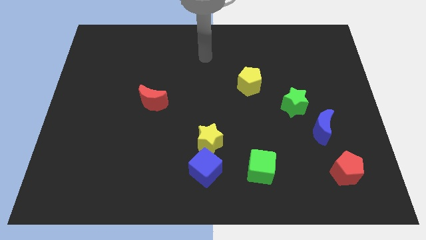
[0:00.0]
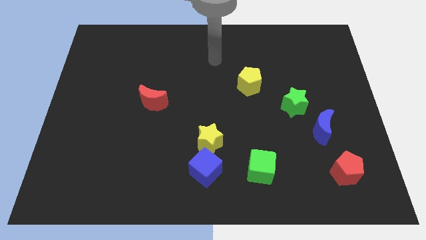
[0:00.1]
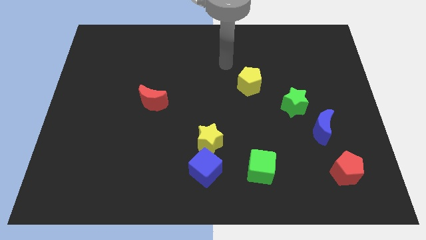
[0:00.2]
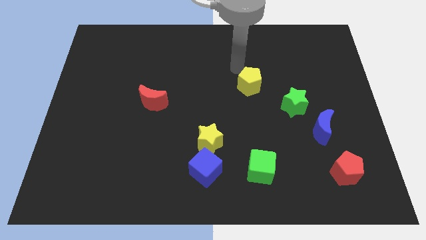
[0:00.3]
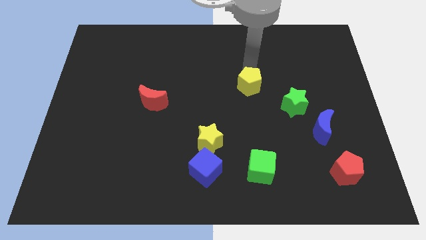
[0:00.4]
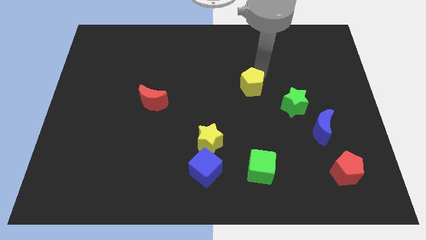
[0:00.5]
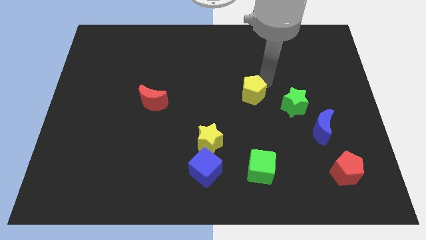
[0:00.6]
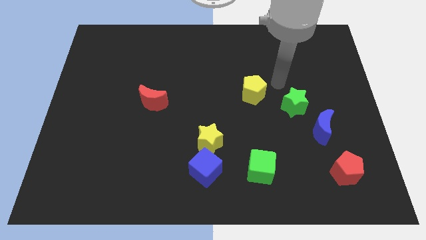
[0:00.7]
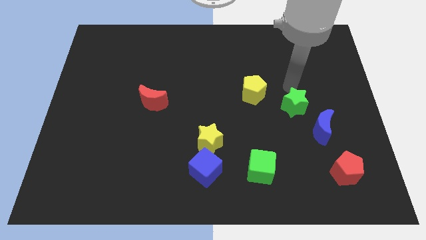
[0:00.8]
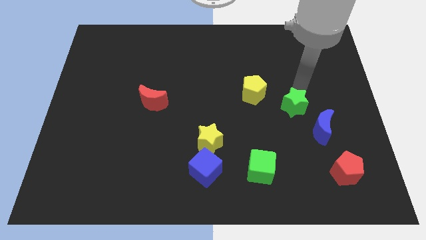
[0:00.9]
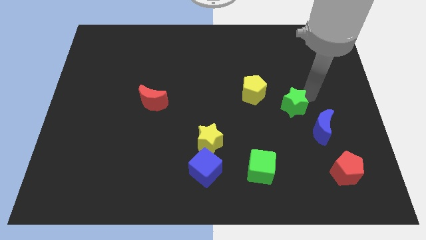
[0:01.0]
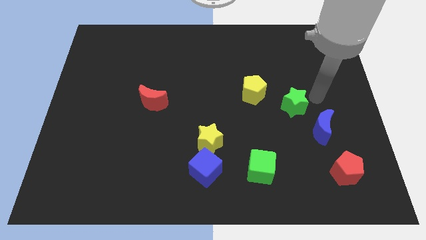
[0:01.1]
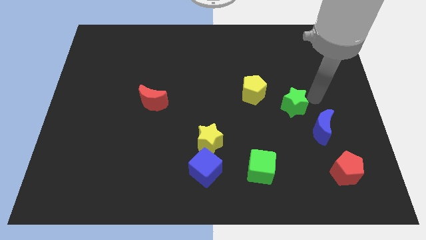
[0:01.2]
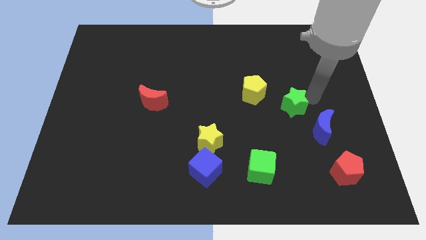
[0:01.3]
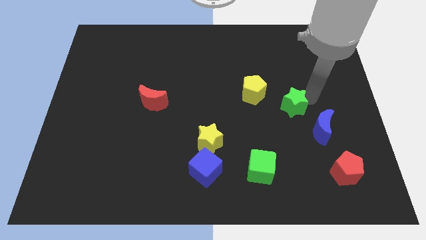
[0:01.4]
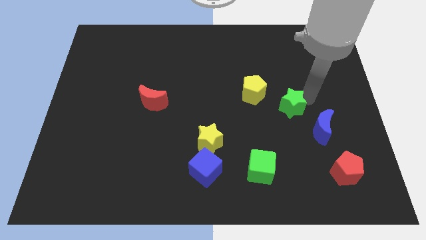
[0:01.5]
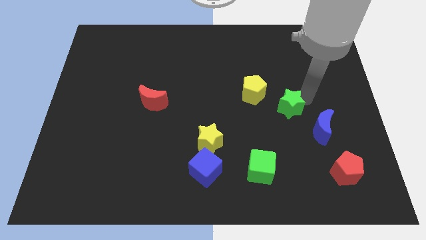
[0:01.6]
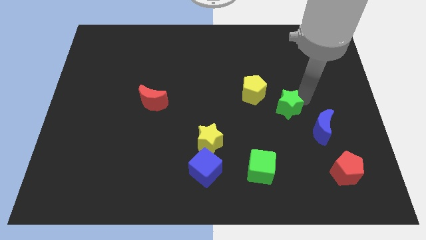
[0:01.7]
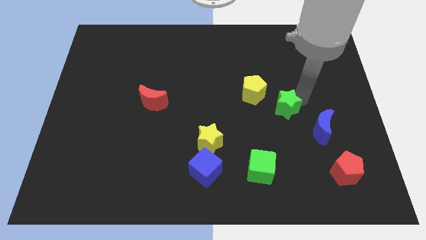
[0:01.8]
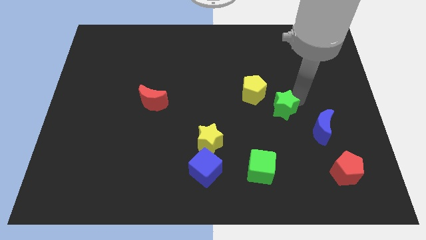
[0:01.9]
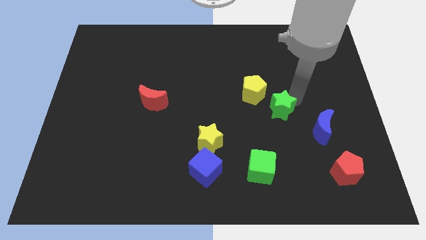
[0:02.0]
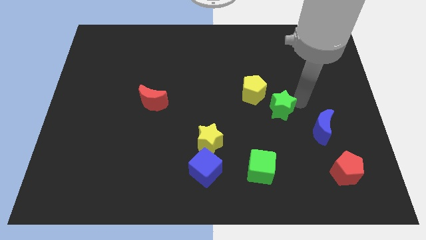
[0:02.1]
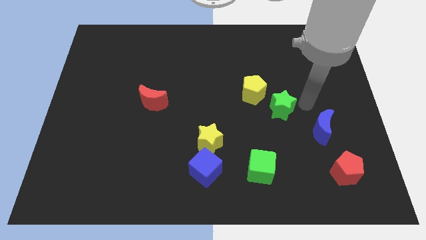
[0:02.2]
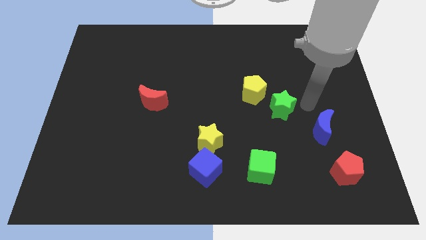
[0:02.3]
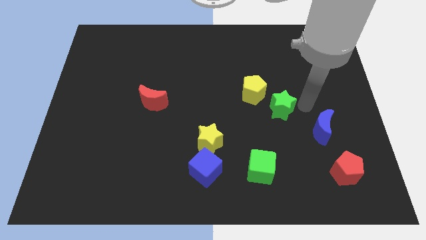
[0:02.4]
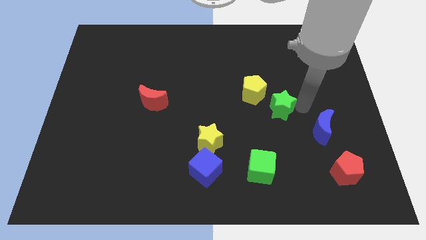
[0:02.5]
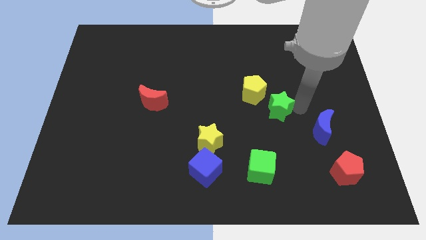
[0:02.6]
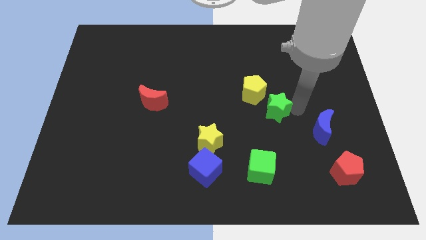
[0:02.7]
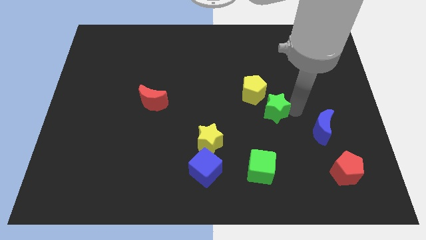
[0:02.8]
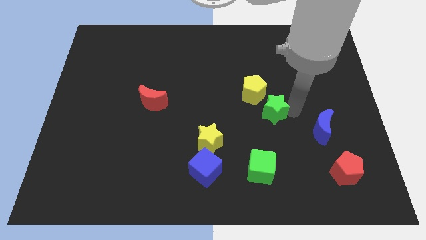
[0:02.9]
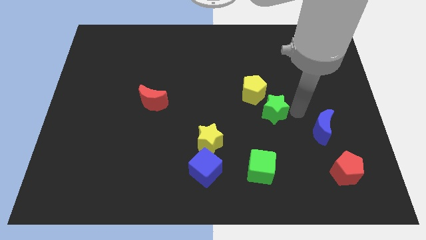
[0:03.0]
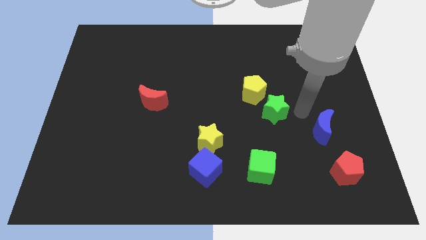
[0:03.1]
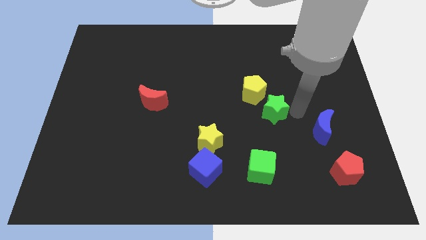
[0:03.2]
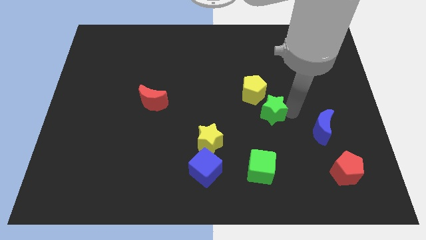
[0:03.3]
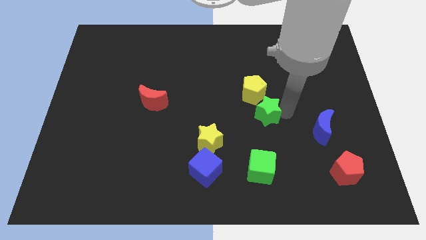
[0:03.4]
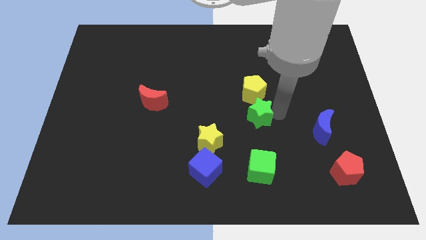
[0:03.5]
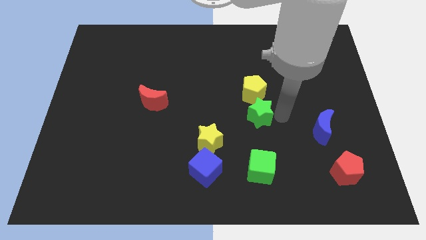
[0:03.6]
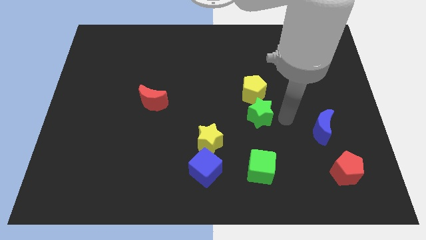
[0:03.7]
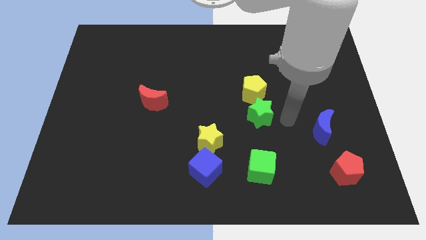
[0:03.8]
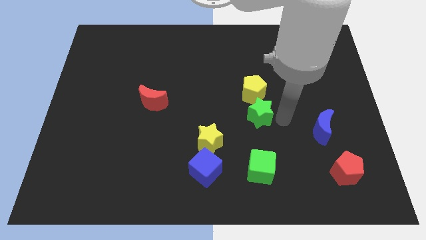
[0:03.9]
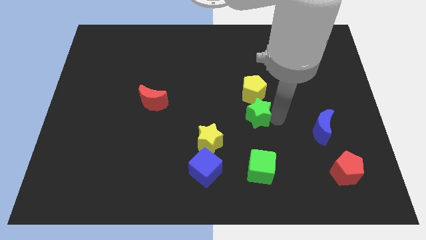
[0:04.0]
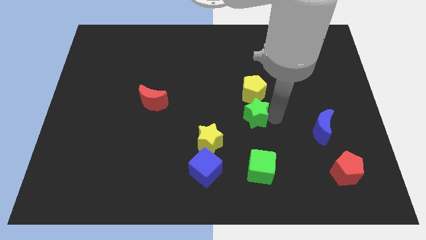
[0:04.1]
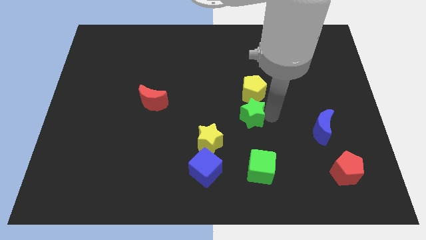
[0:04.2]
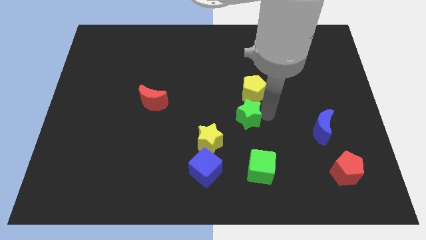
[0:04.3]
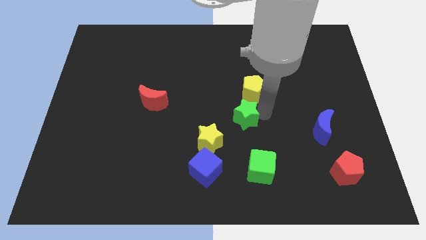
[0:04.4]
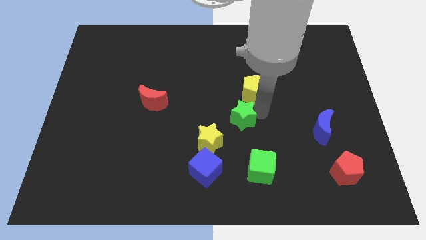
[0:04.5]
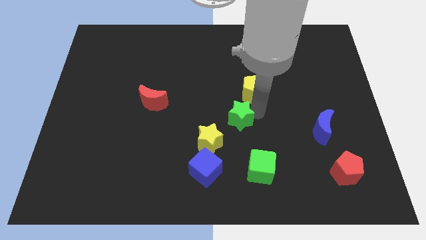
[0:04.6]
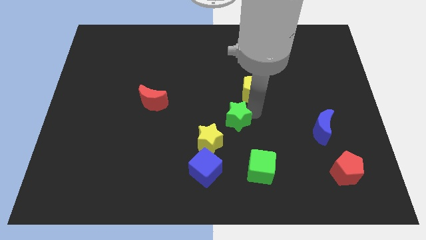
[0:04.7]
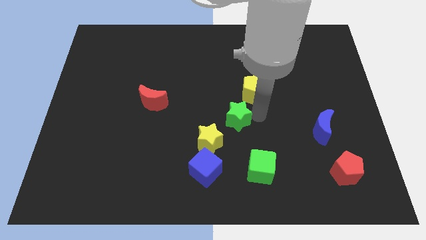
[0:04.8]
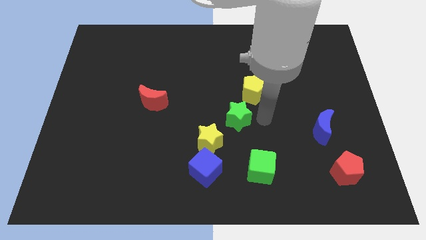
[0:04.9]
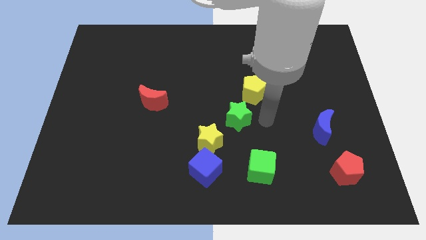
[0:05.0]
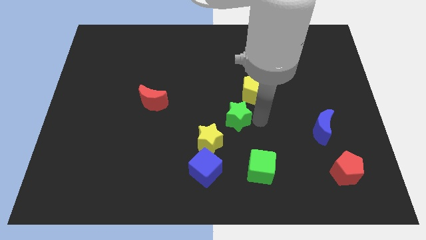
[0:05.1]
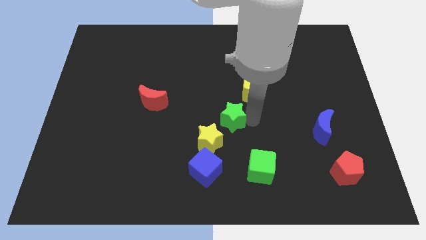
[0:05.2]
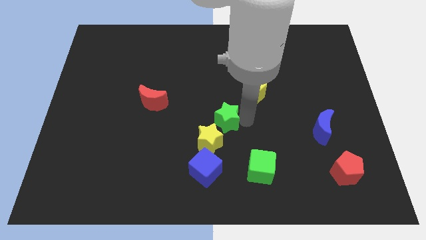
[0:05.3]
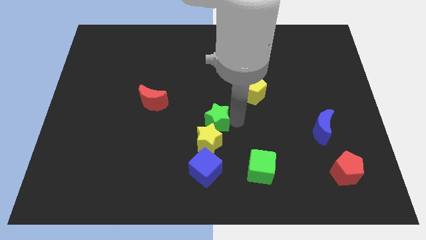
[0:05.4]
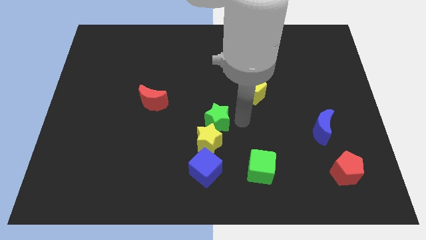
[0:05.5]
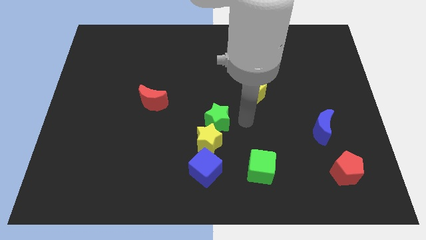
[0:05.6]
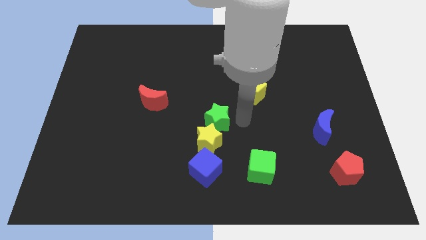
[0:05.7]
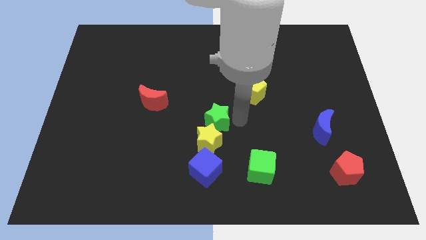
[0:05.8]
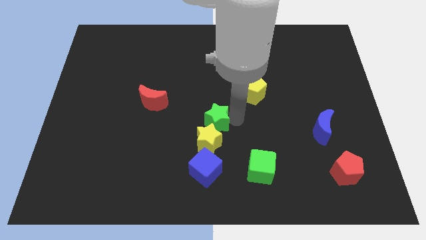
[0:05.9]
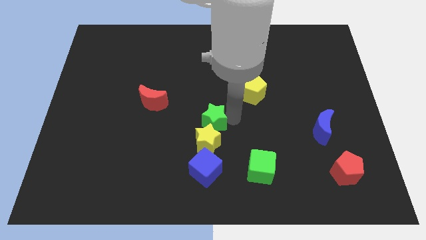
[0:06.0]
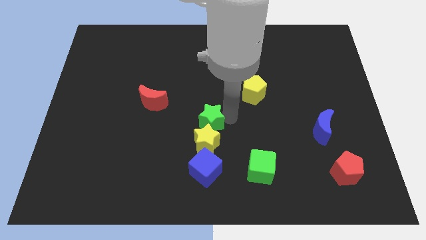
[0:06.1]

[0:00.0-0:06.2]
push the green star diagonally up and to the left of the yellow star

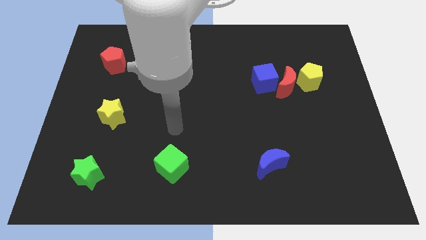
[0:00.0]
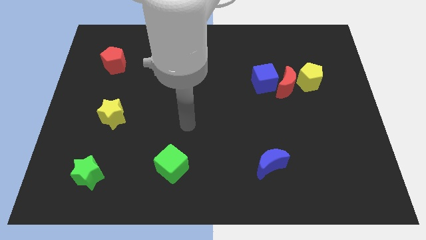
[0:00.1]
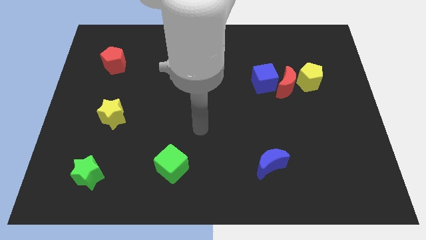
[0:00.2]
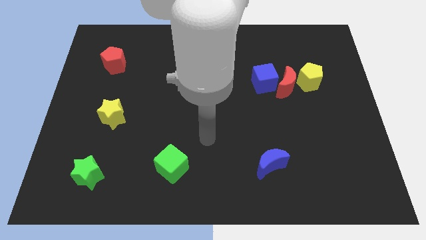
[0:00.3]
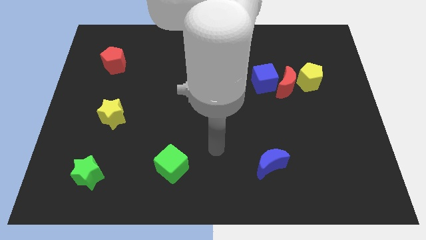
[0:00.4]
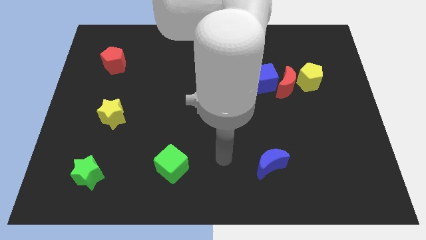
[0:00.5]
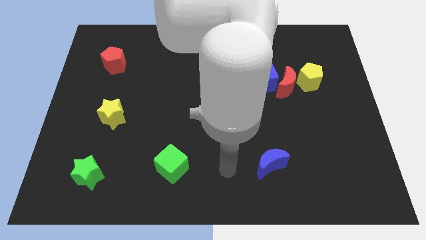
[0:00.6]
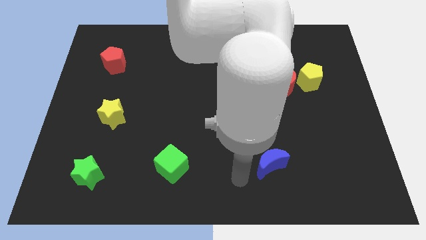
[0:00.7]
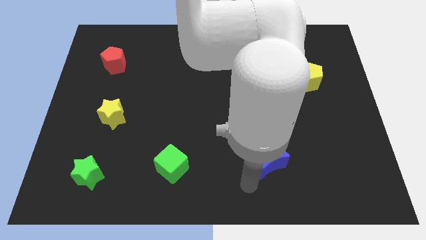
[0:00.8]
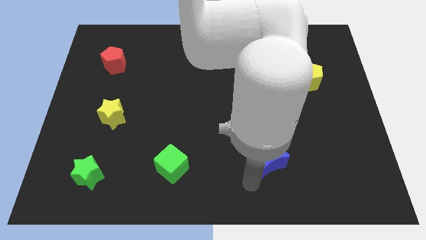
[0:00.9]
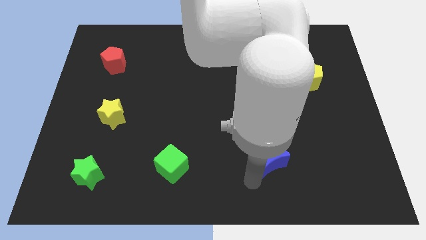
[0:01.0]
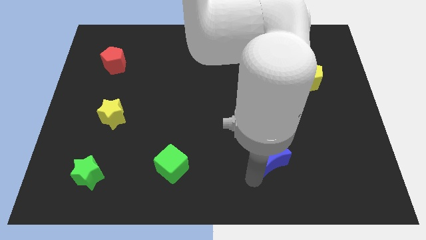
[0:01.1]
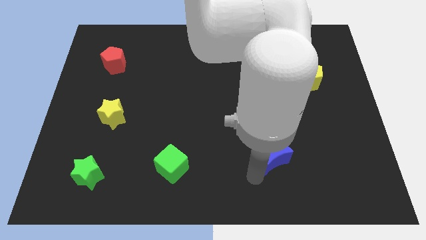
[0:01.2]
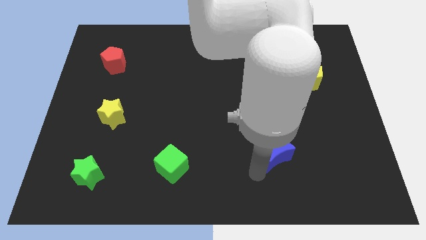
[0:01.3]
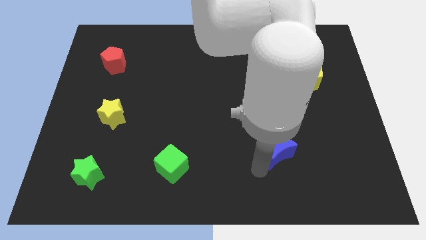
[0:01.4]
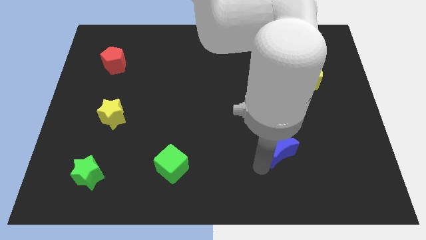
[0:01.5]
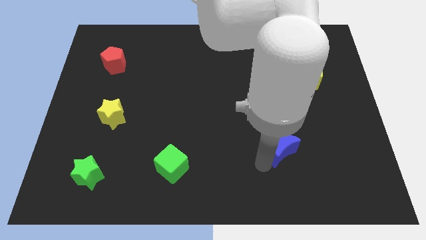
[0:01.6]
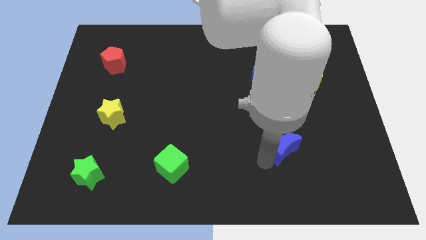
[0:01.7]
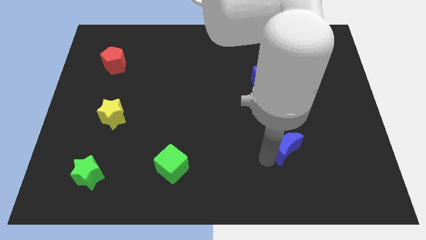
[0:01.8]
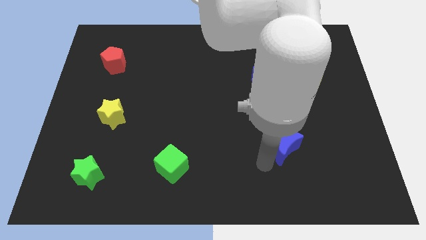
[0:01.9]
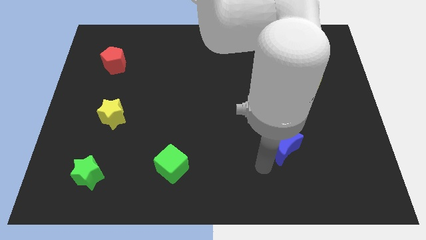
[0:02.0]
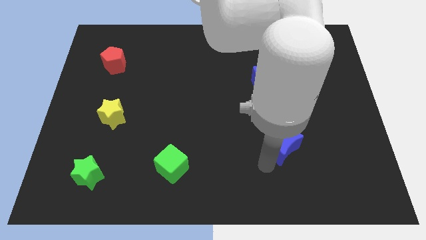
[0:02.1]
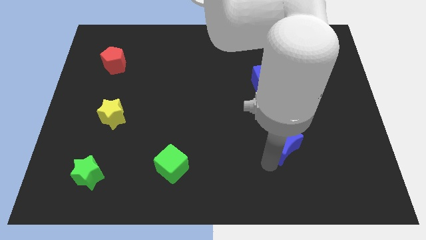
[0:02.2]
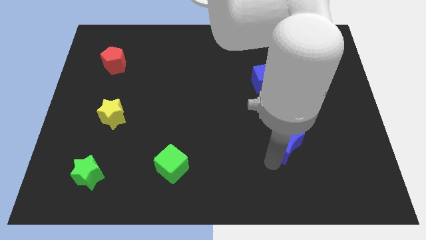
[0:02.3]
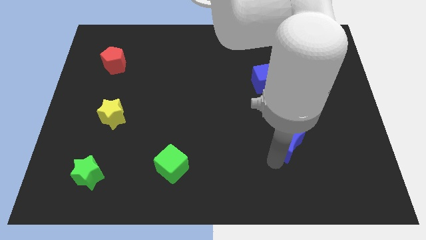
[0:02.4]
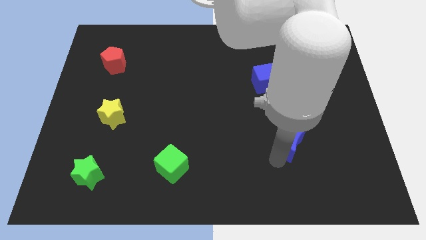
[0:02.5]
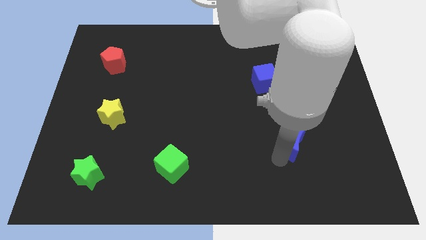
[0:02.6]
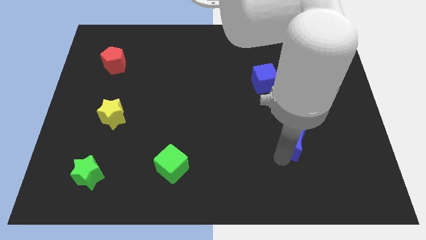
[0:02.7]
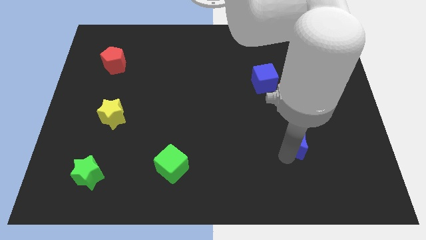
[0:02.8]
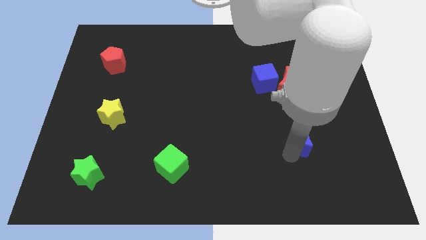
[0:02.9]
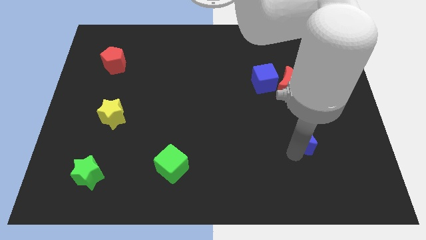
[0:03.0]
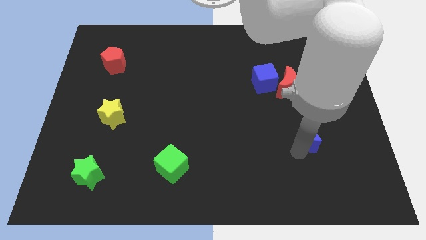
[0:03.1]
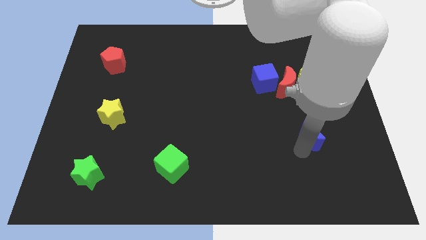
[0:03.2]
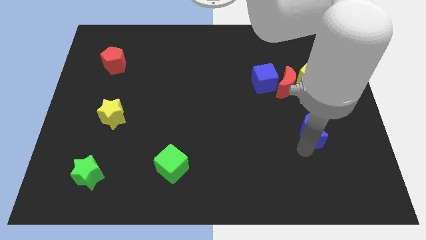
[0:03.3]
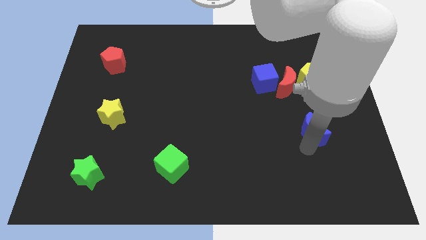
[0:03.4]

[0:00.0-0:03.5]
slide the blue moon to the bottom of the yellow pentagon
